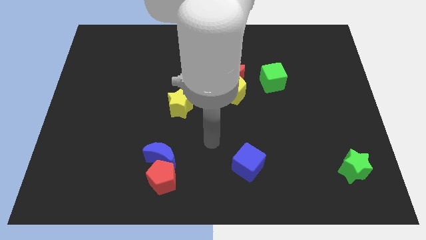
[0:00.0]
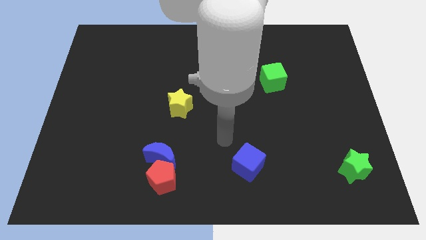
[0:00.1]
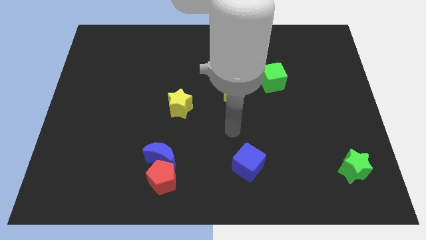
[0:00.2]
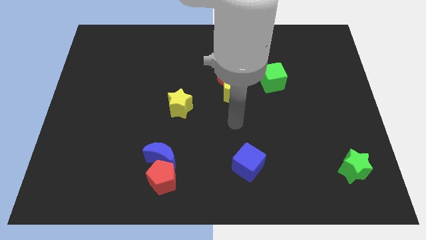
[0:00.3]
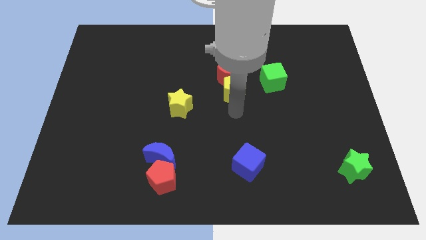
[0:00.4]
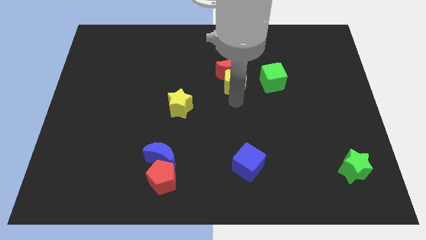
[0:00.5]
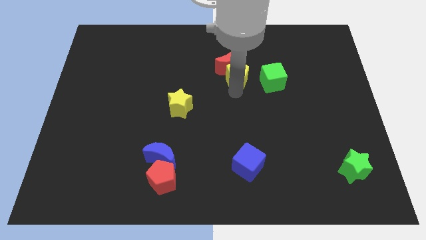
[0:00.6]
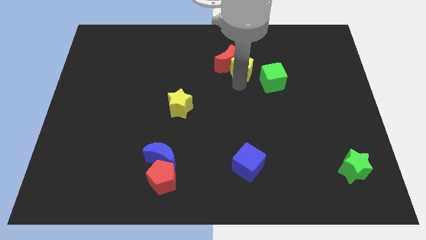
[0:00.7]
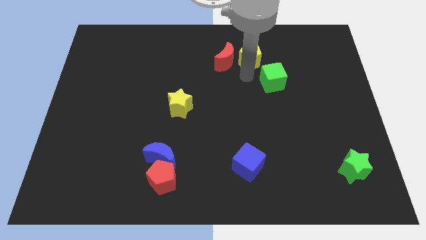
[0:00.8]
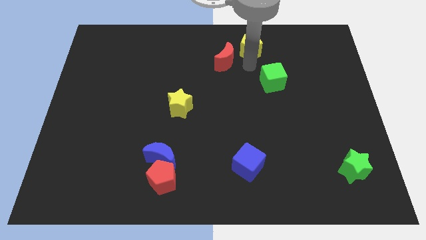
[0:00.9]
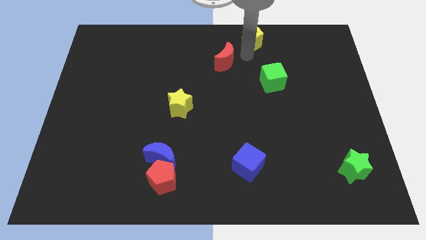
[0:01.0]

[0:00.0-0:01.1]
separate the red moon from the yellow pentagon

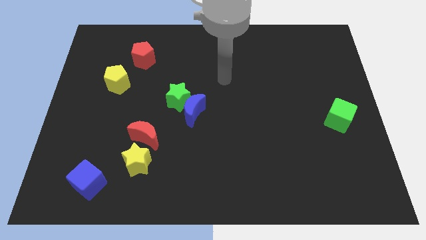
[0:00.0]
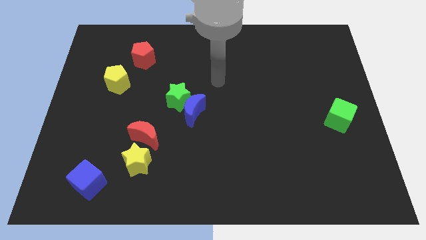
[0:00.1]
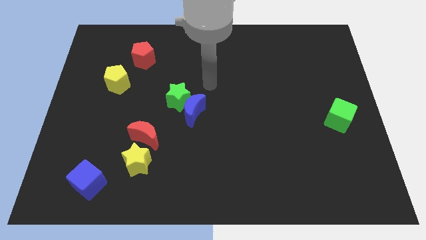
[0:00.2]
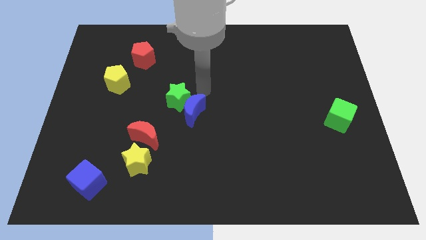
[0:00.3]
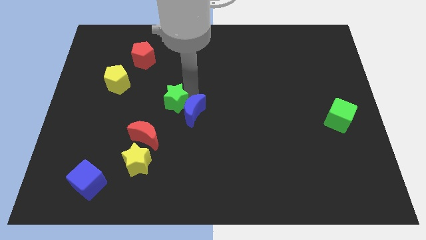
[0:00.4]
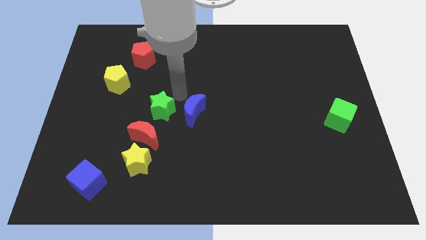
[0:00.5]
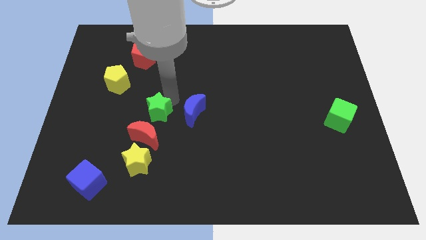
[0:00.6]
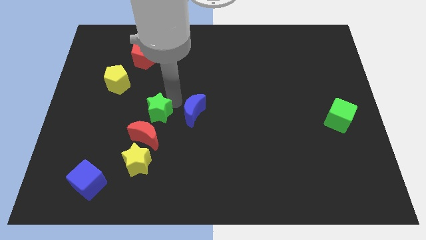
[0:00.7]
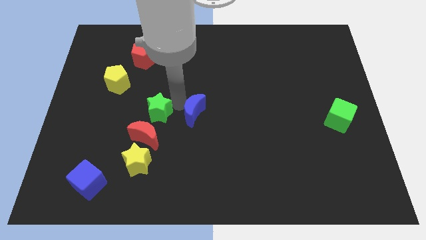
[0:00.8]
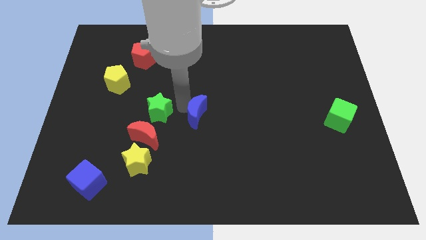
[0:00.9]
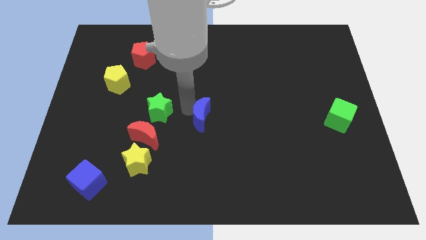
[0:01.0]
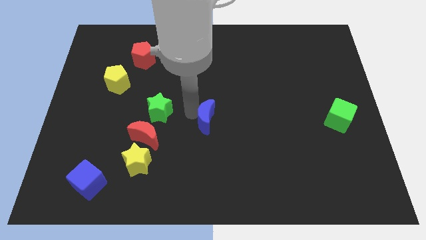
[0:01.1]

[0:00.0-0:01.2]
separate the blue moon from the green star

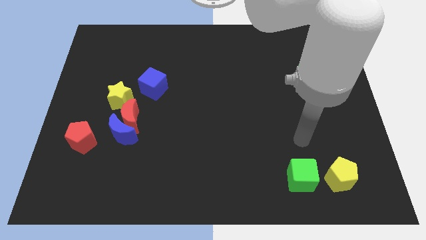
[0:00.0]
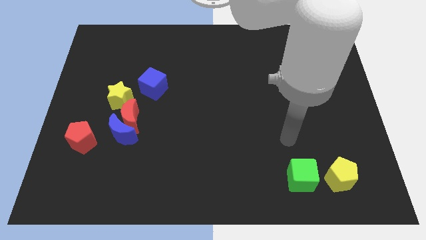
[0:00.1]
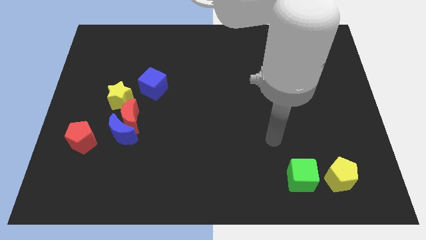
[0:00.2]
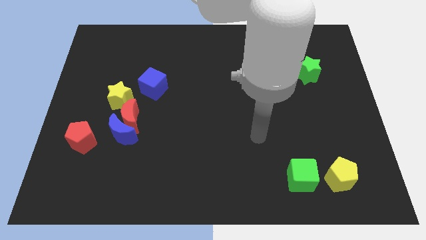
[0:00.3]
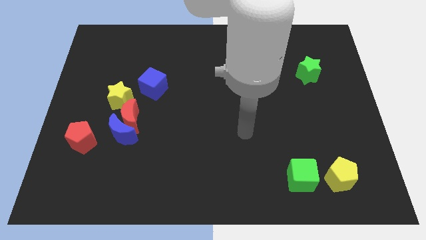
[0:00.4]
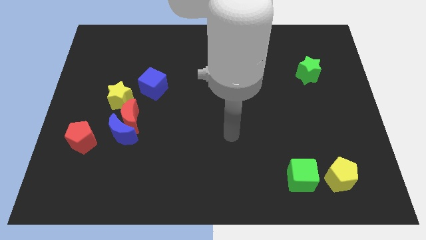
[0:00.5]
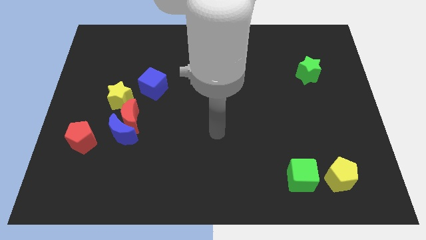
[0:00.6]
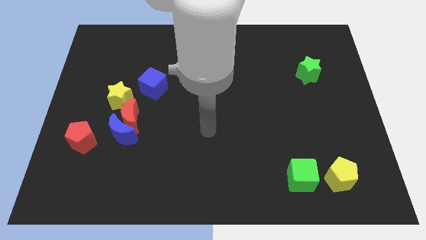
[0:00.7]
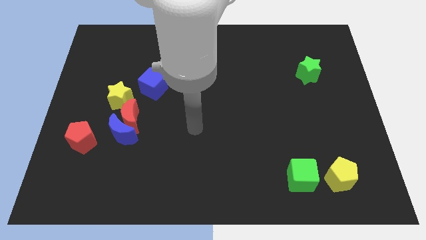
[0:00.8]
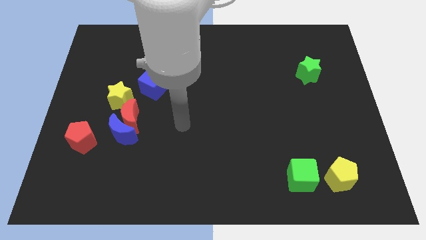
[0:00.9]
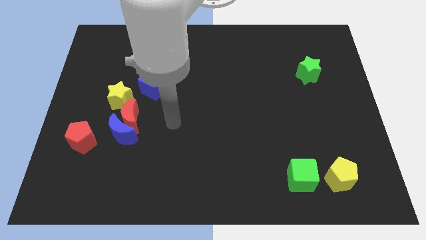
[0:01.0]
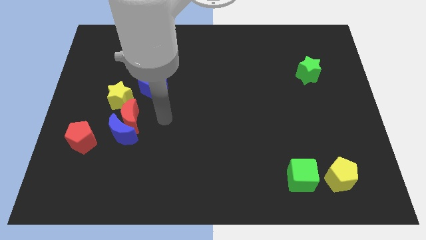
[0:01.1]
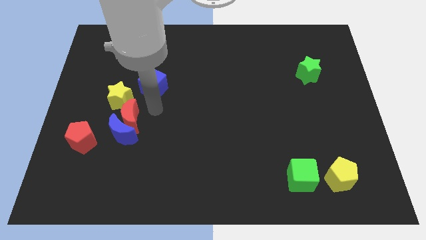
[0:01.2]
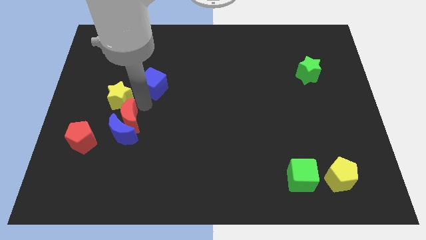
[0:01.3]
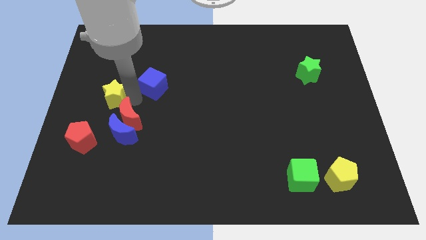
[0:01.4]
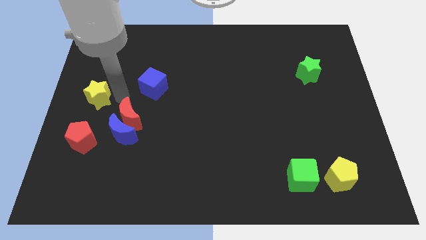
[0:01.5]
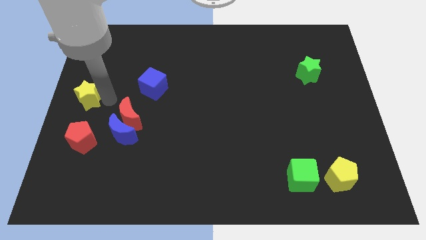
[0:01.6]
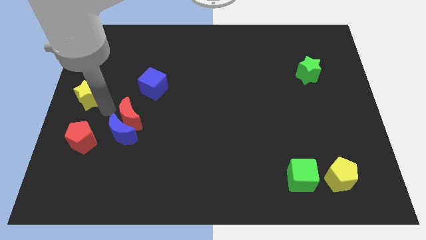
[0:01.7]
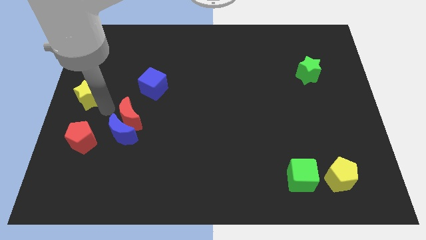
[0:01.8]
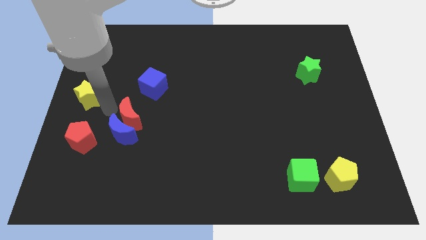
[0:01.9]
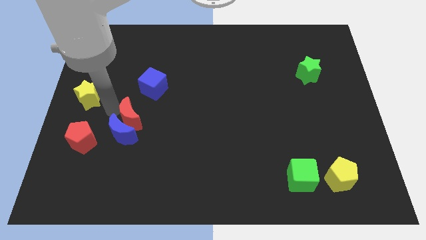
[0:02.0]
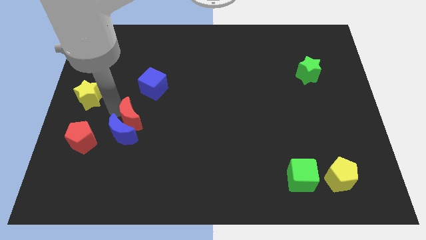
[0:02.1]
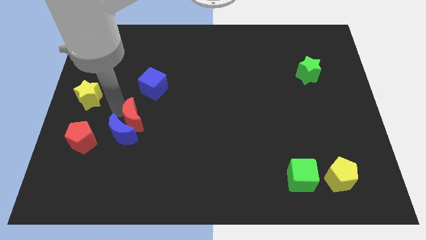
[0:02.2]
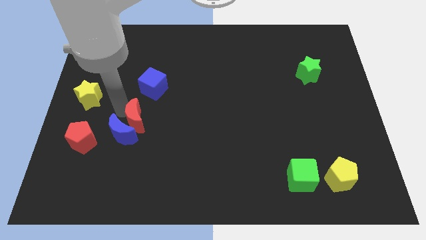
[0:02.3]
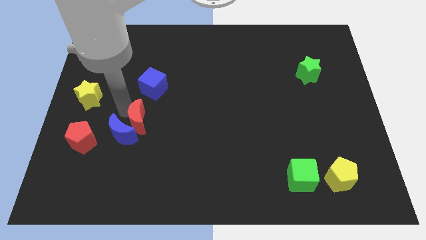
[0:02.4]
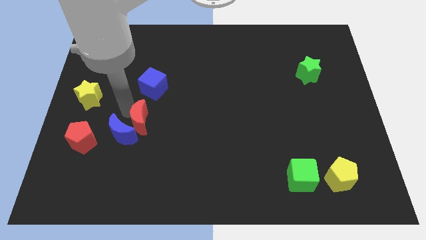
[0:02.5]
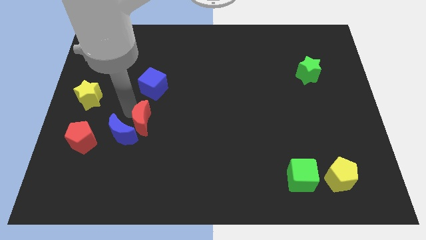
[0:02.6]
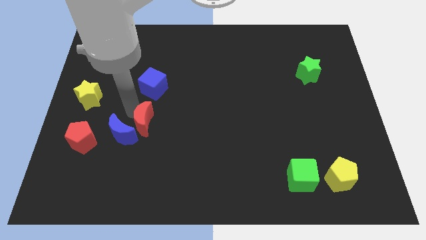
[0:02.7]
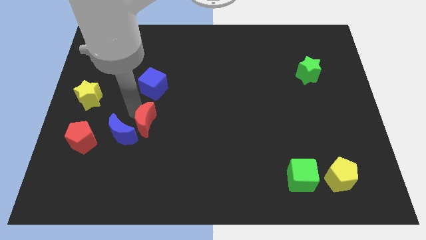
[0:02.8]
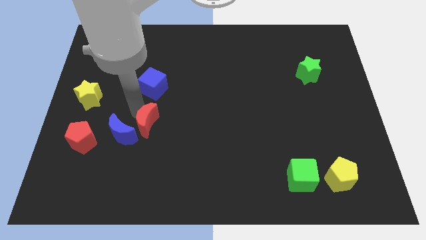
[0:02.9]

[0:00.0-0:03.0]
separate the red moon from the blue moon and yellow star

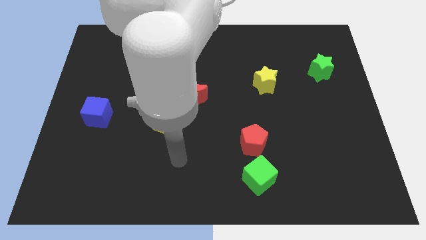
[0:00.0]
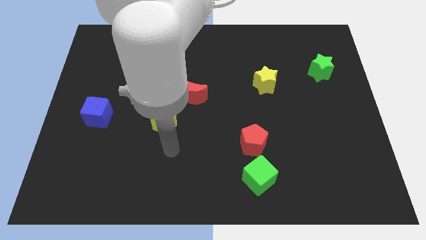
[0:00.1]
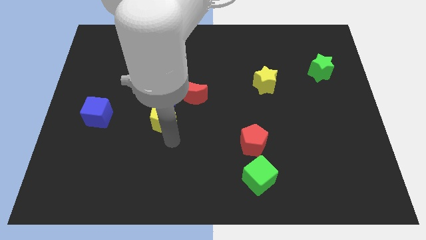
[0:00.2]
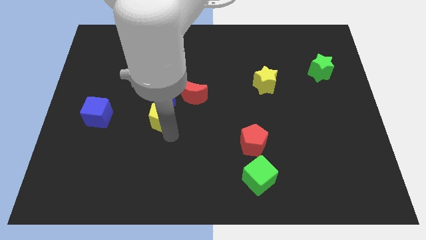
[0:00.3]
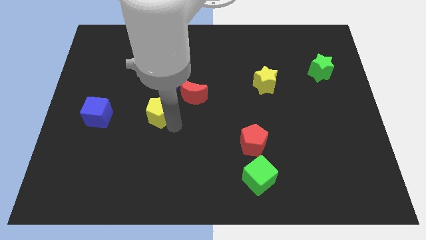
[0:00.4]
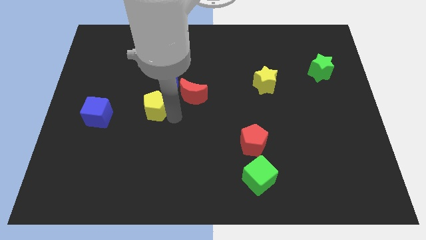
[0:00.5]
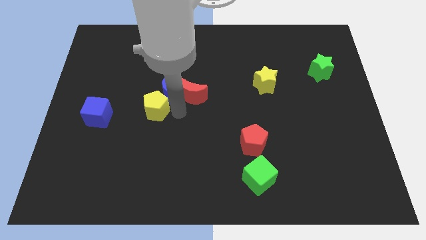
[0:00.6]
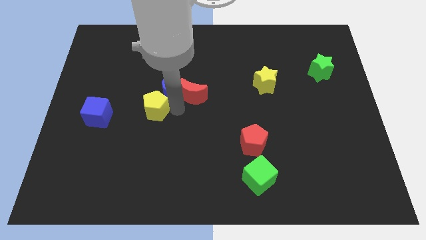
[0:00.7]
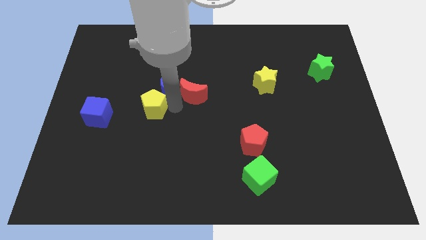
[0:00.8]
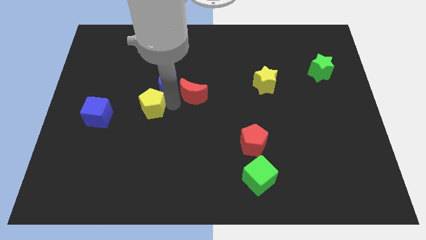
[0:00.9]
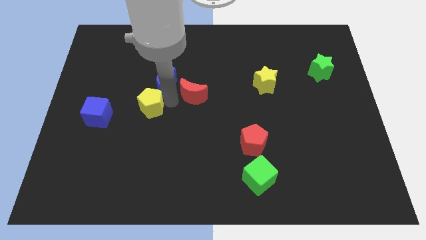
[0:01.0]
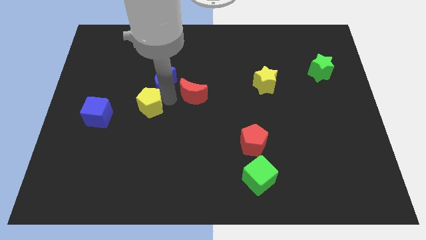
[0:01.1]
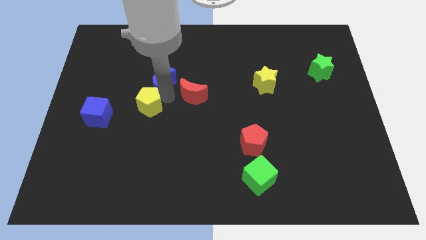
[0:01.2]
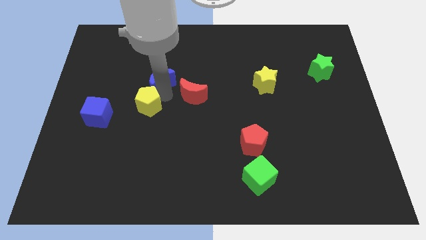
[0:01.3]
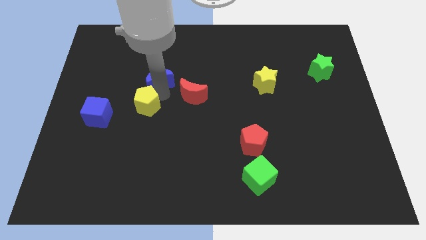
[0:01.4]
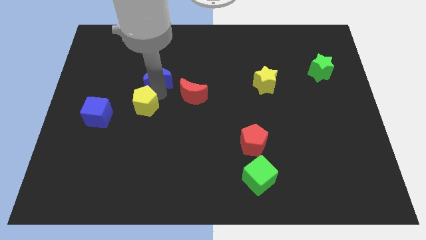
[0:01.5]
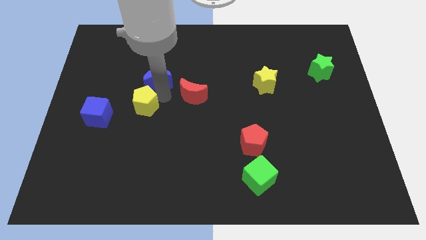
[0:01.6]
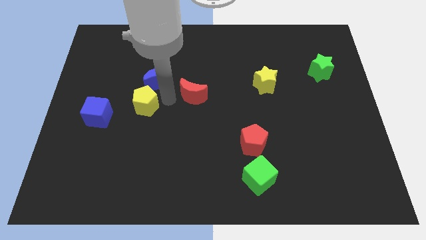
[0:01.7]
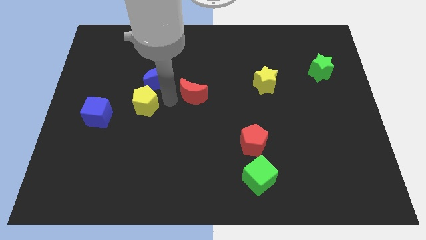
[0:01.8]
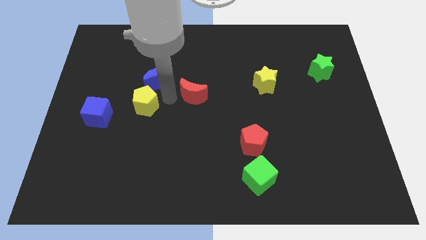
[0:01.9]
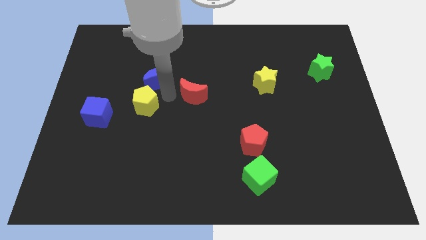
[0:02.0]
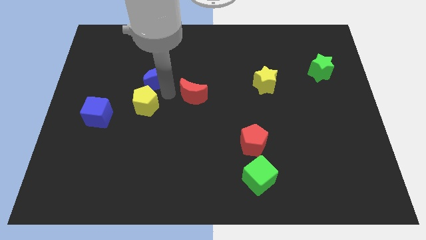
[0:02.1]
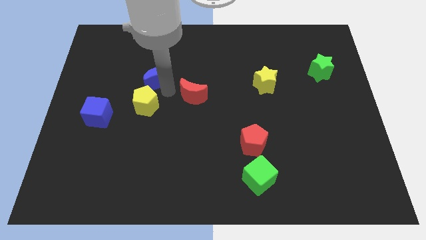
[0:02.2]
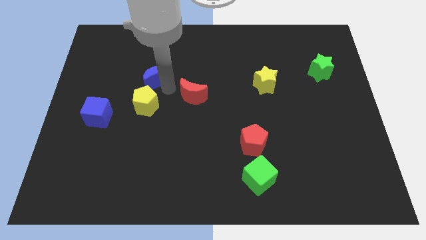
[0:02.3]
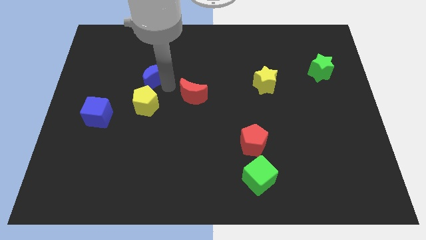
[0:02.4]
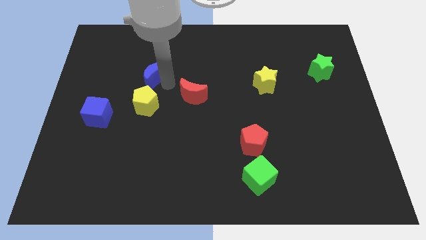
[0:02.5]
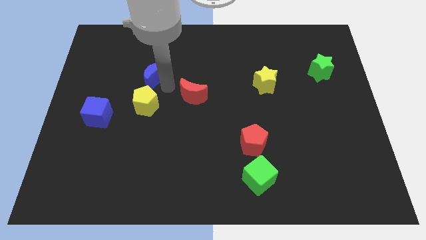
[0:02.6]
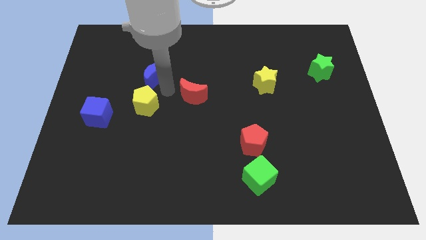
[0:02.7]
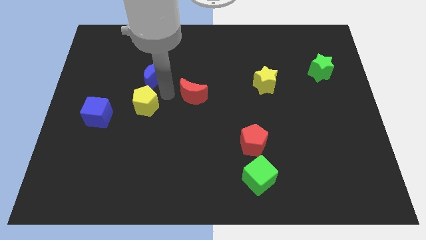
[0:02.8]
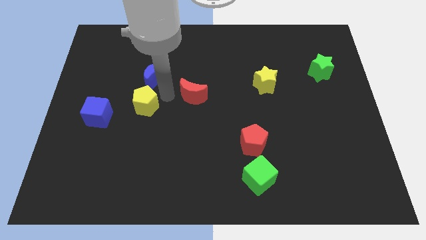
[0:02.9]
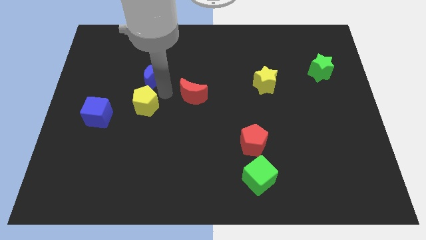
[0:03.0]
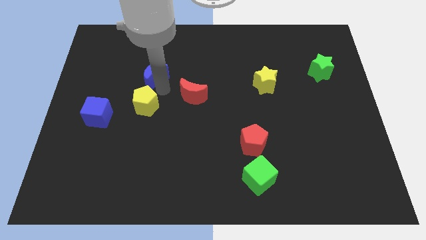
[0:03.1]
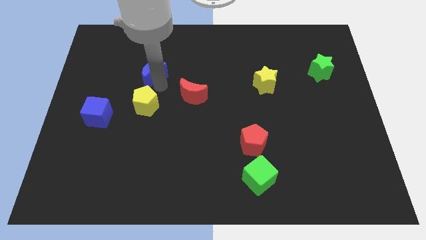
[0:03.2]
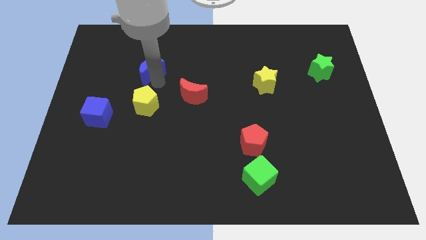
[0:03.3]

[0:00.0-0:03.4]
separate the blue moon from the red moon and yellow pentagon

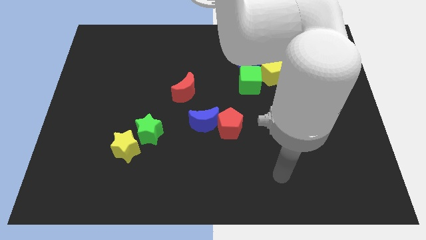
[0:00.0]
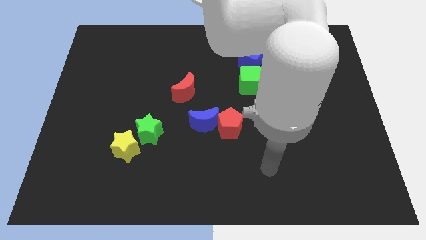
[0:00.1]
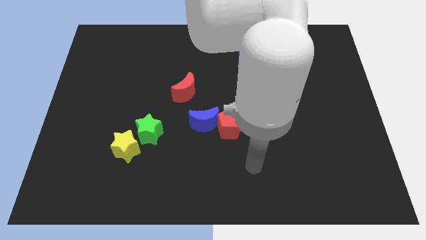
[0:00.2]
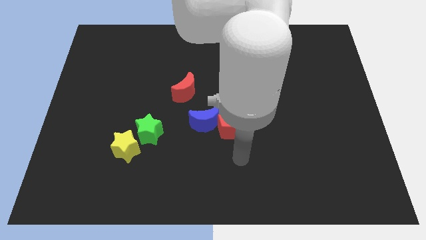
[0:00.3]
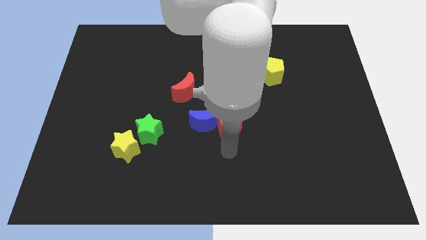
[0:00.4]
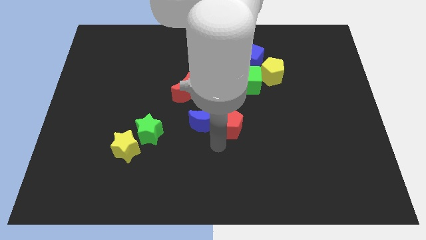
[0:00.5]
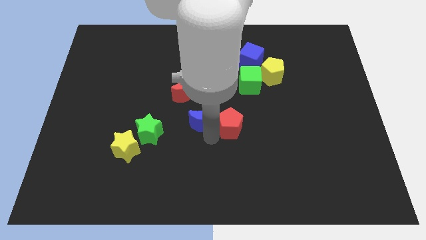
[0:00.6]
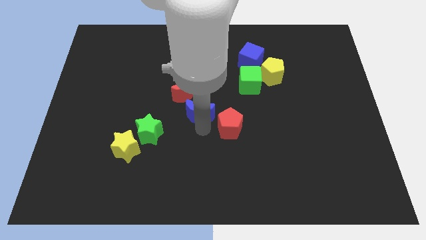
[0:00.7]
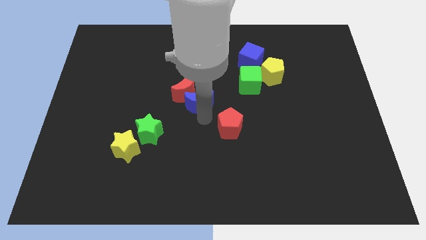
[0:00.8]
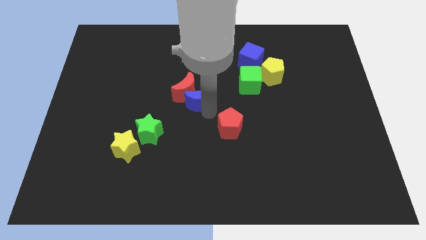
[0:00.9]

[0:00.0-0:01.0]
separate the red pentagon from the blue moon
